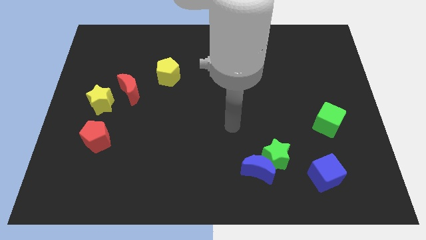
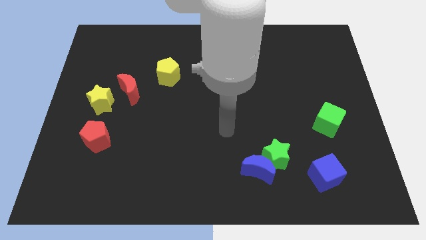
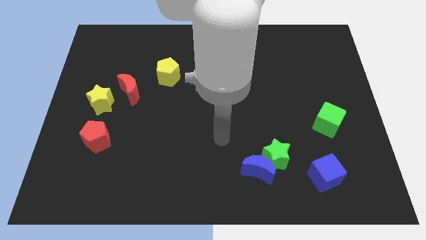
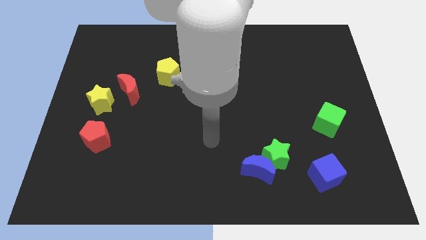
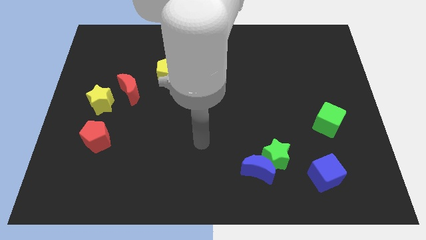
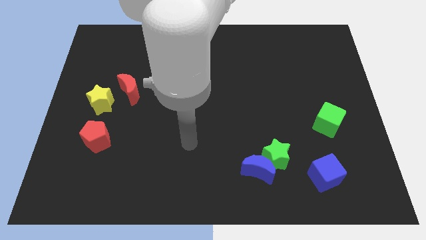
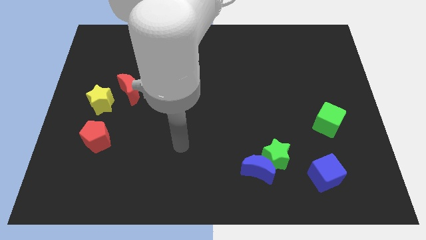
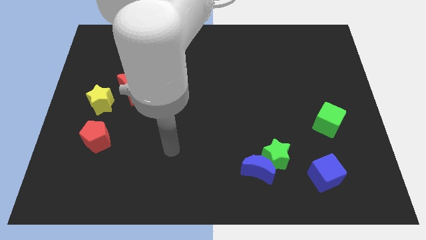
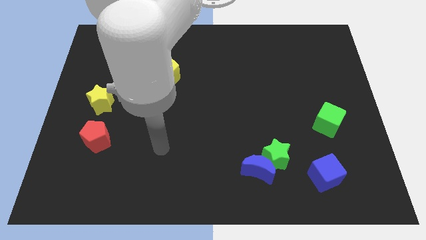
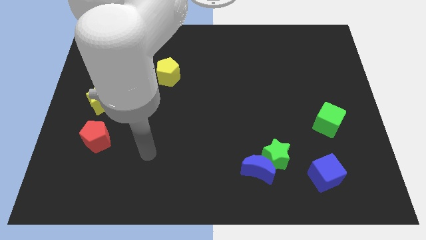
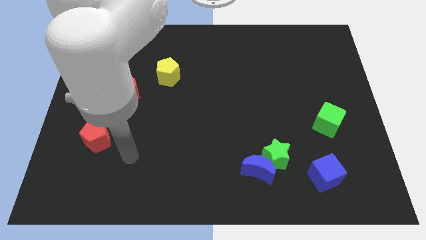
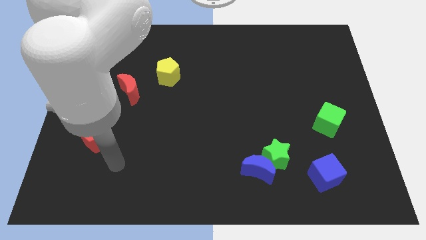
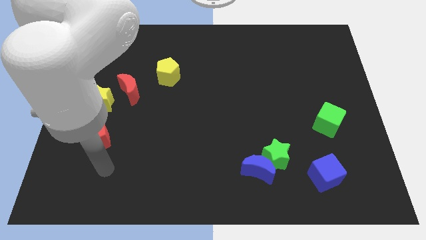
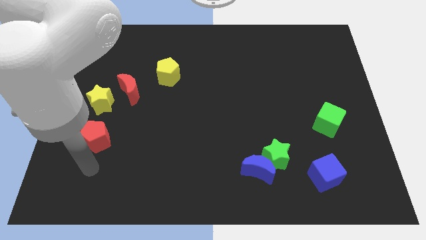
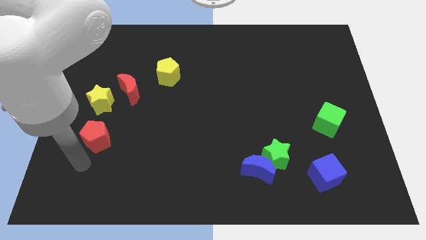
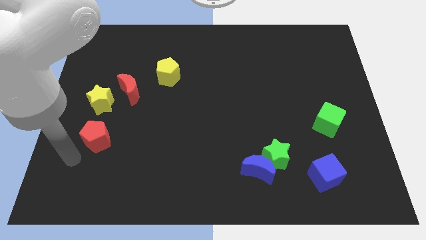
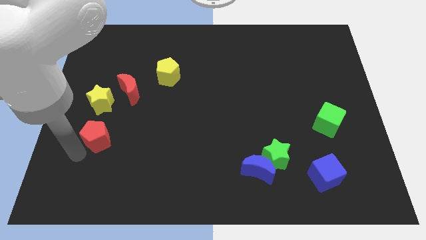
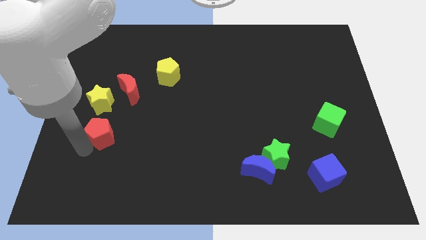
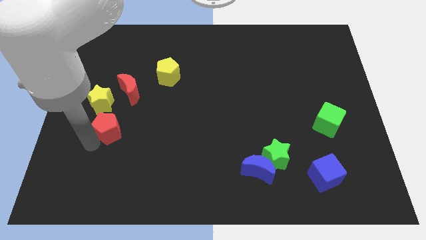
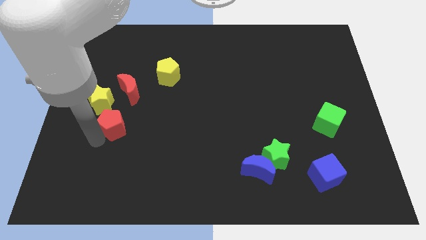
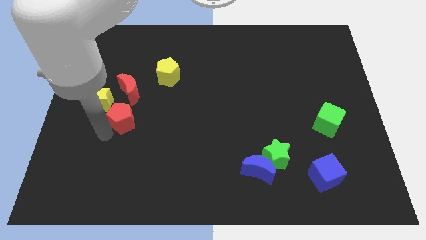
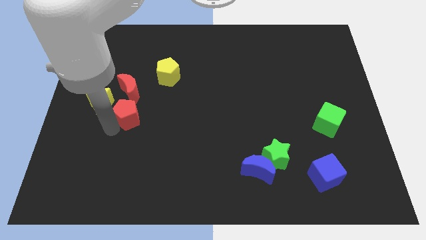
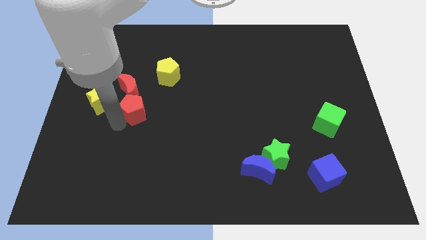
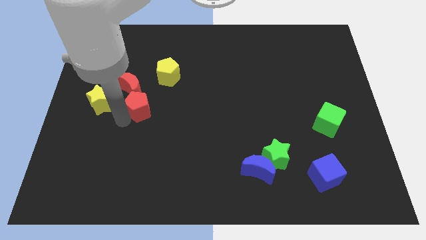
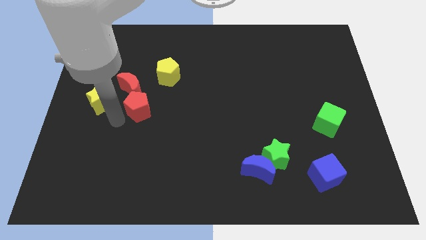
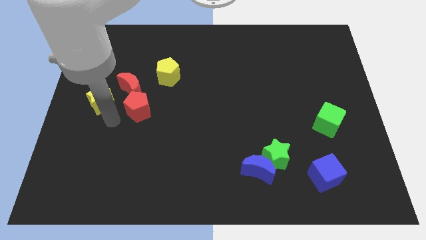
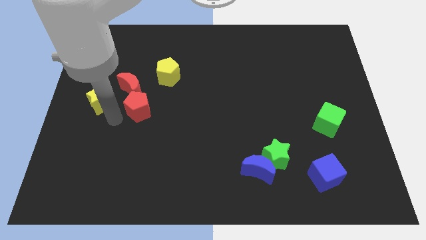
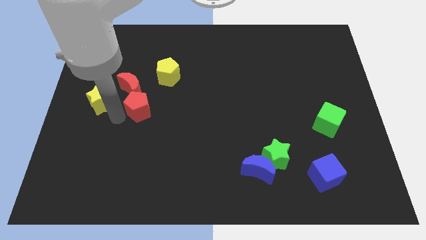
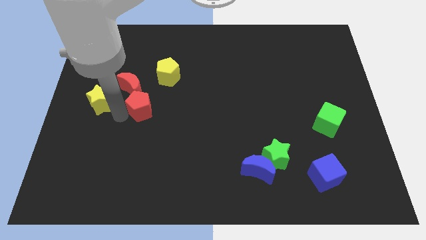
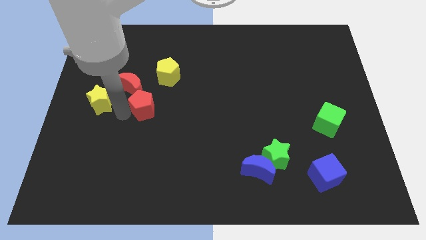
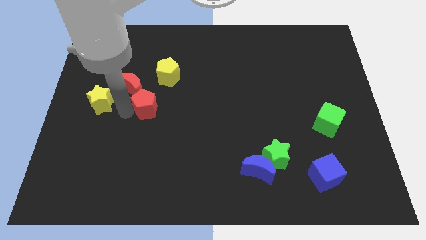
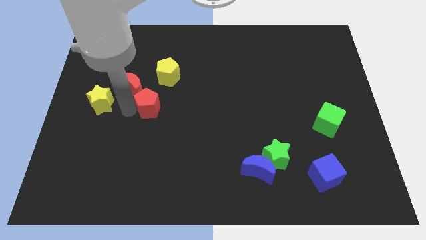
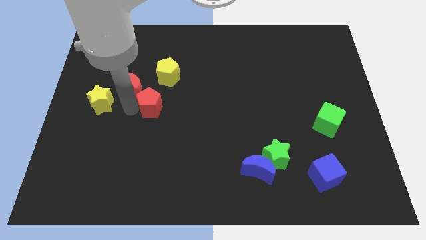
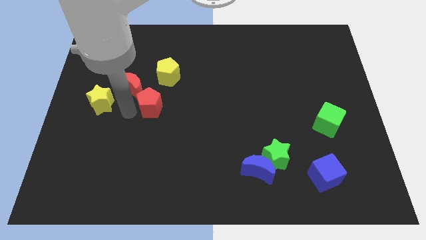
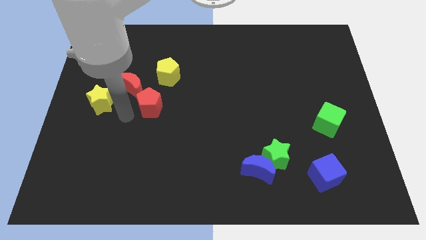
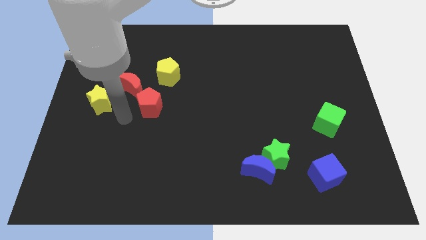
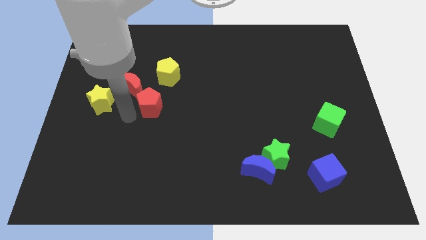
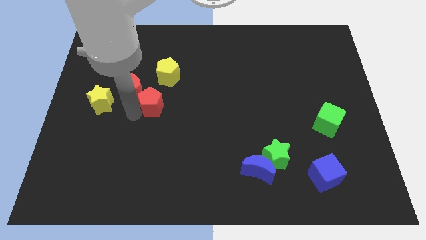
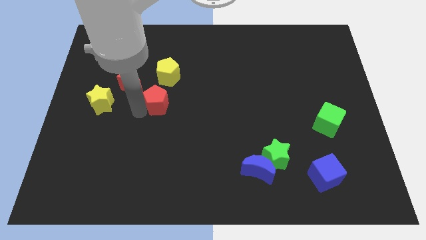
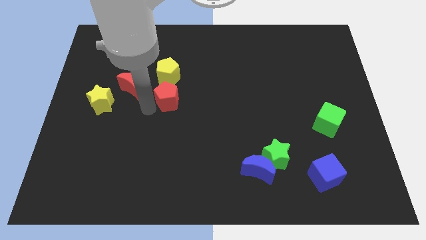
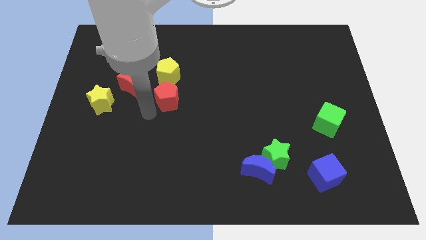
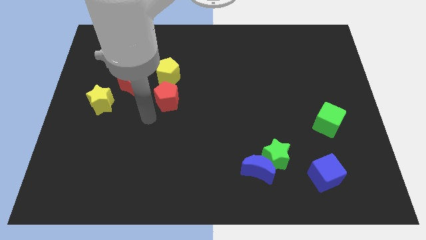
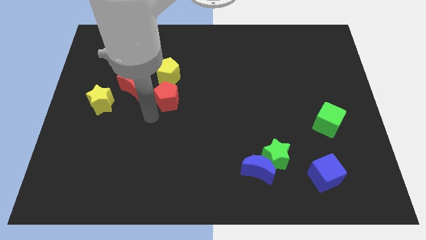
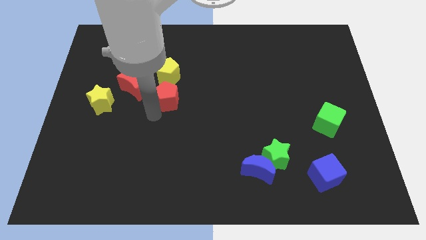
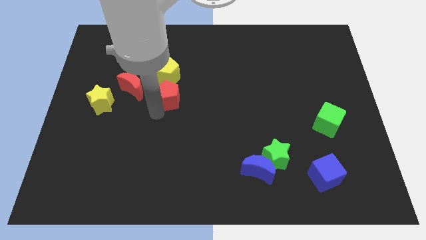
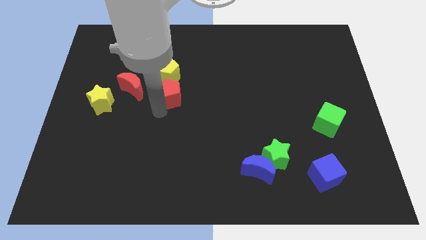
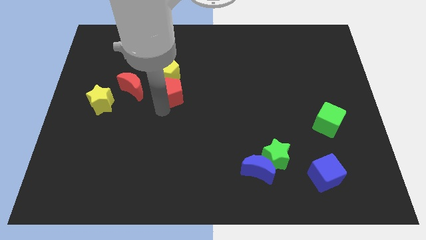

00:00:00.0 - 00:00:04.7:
push the red pentagon diagonally up and to the right

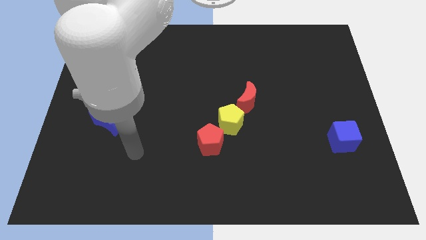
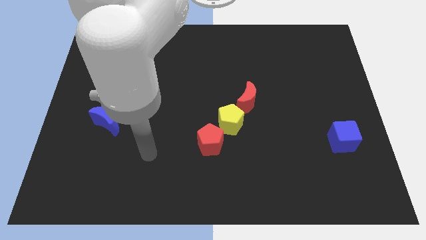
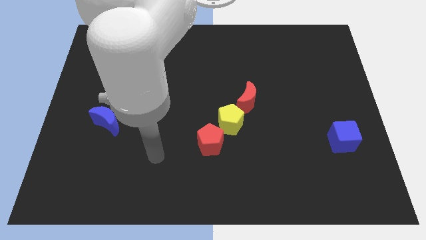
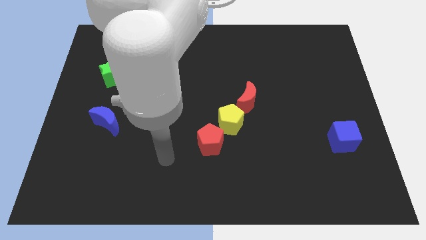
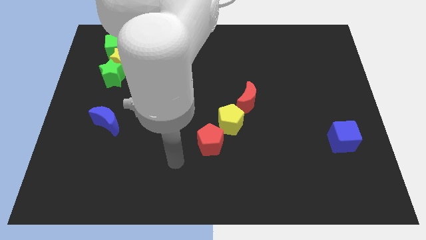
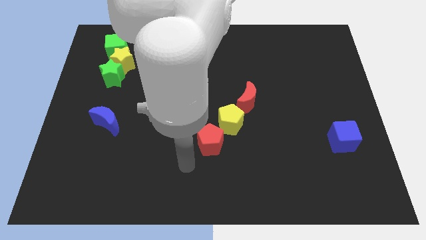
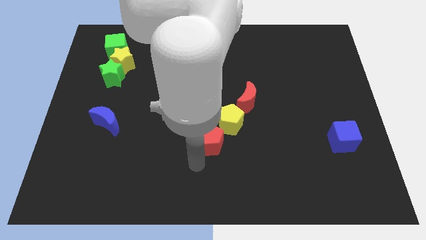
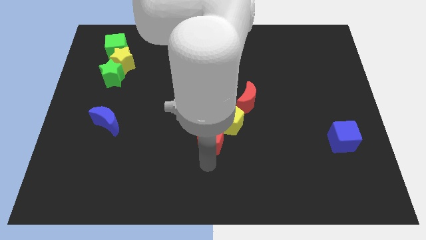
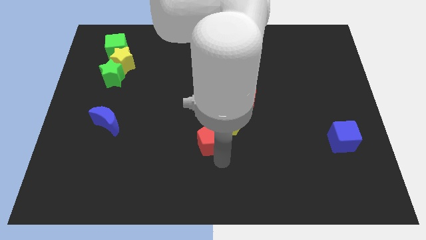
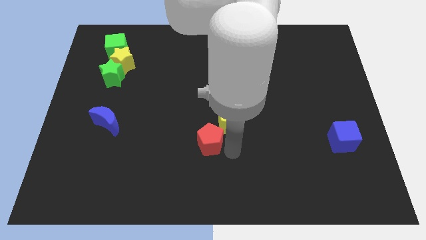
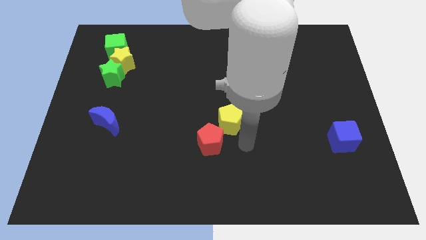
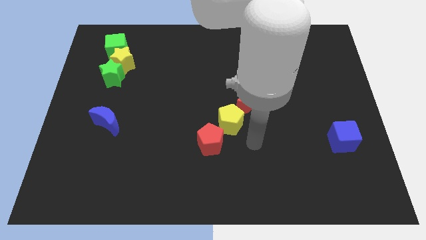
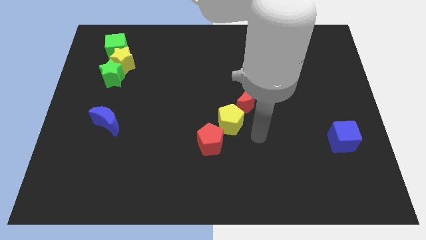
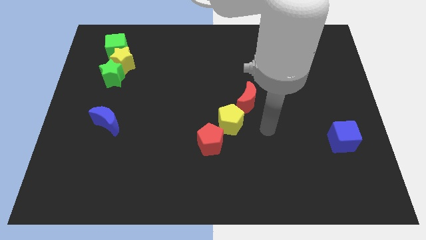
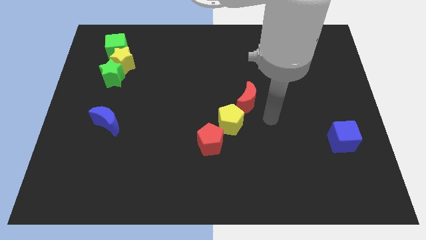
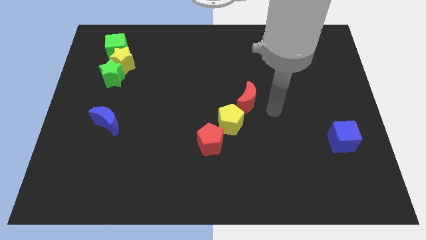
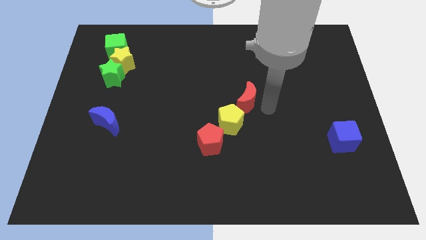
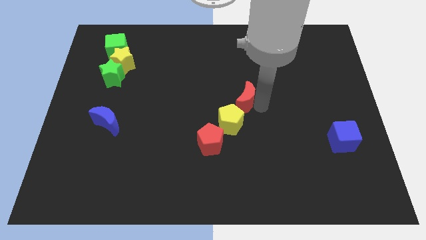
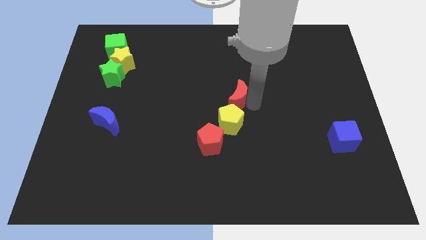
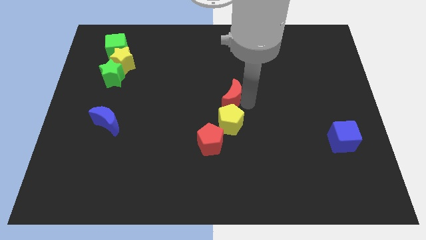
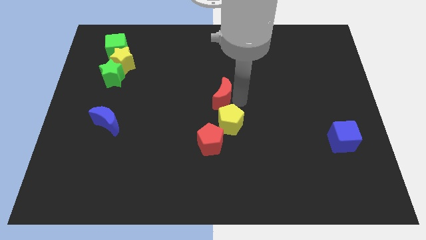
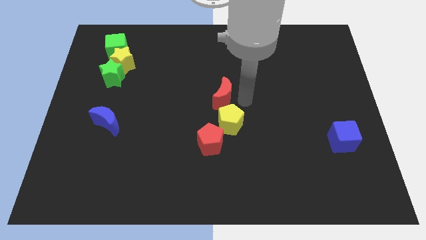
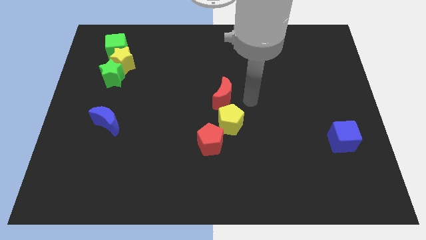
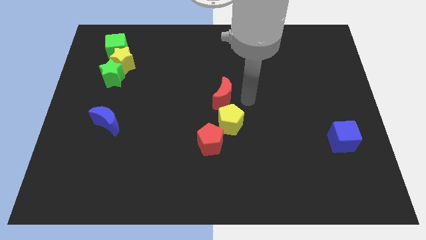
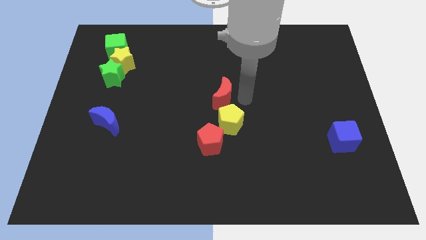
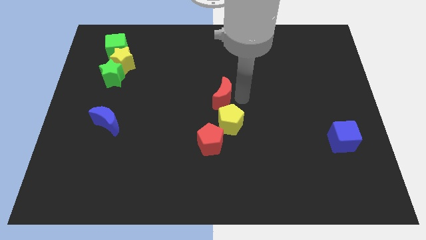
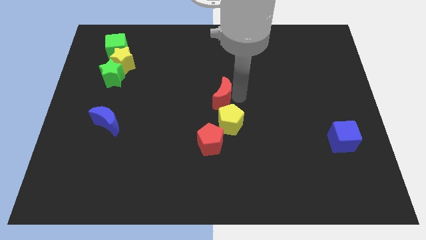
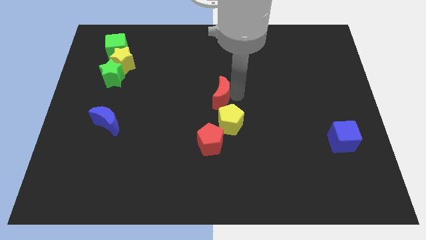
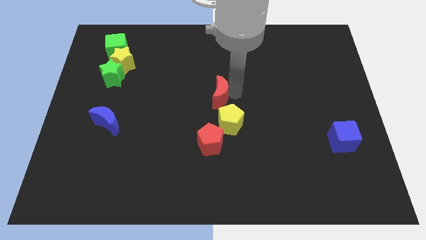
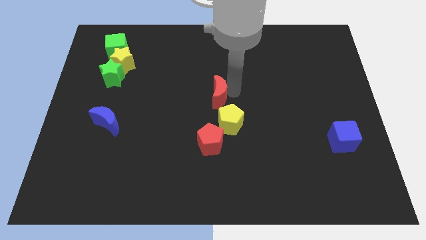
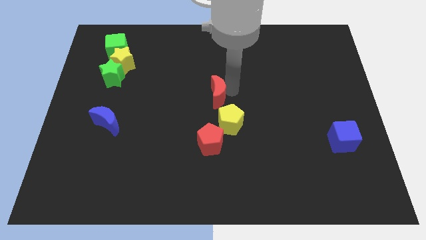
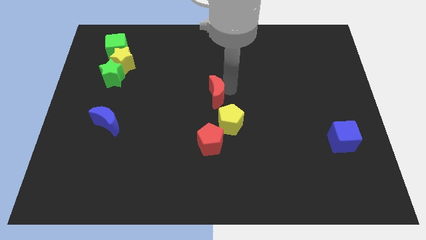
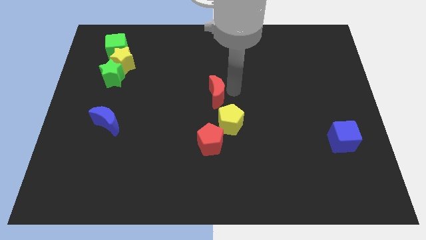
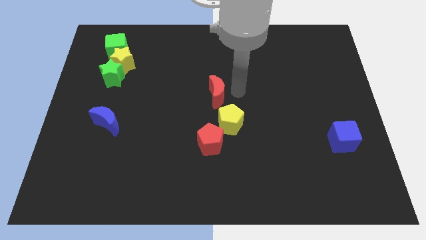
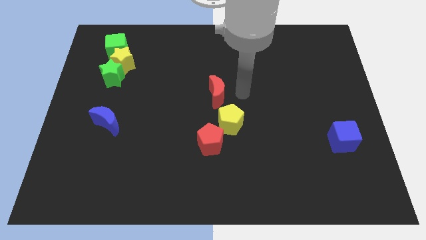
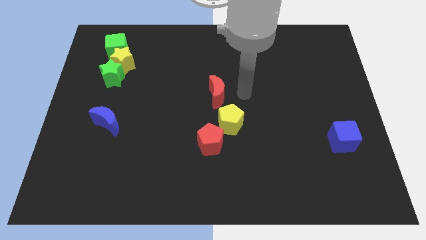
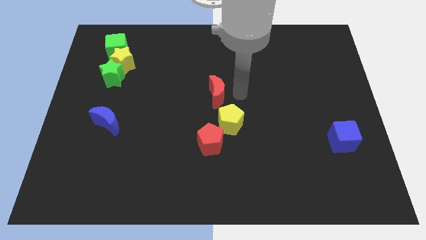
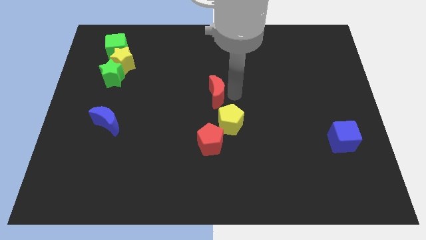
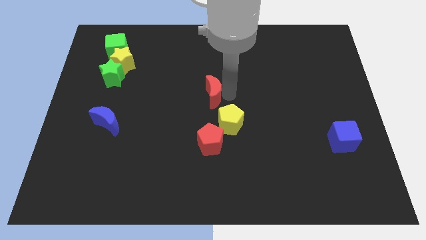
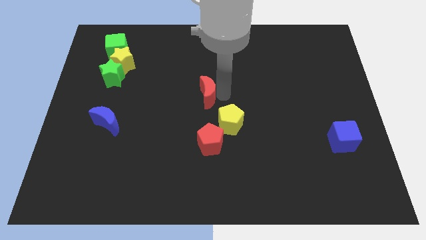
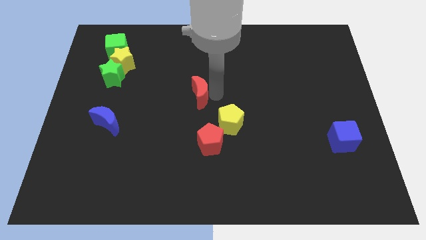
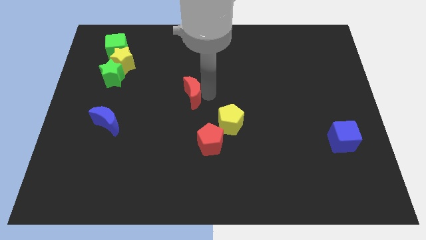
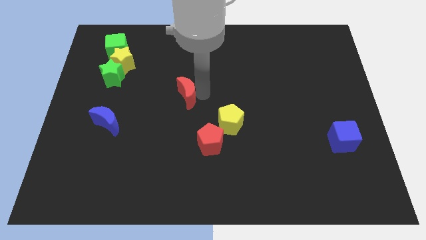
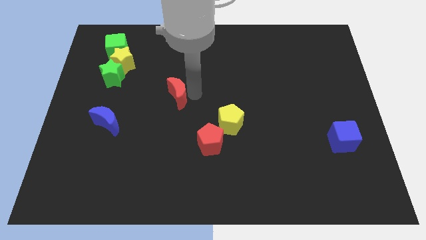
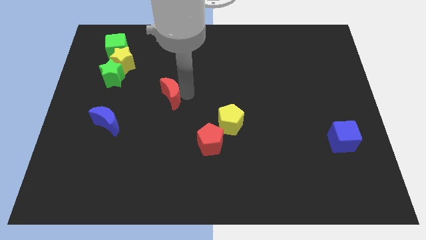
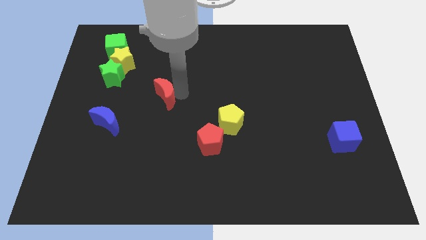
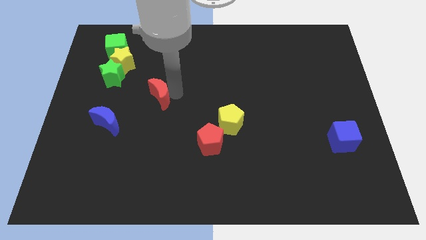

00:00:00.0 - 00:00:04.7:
slide the red moon to the left
